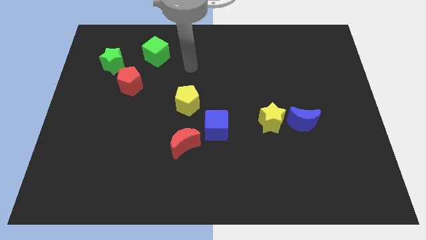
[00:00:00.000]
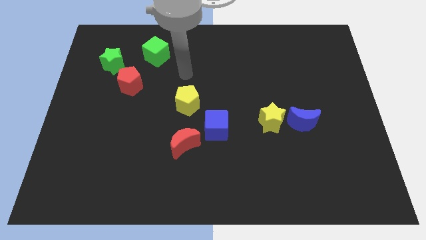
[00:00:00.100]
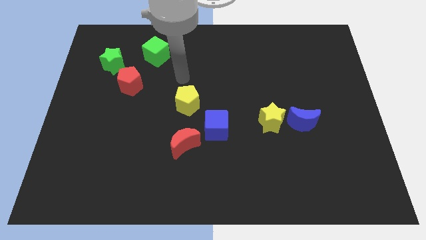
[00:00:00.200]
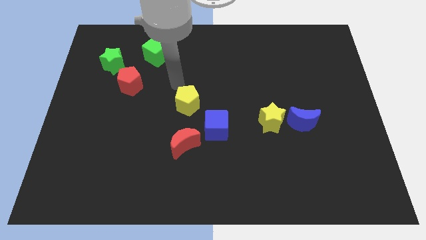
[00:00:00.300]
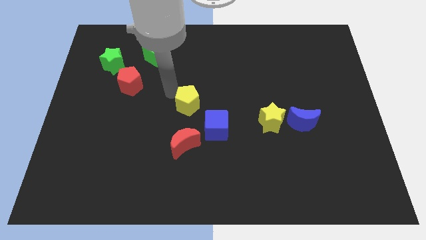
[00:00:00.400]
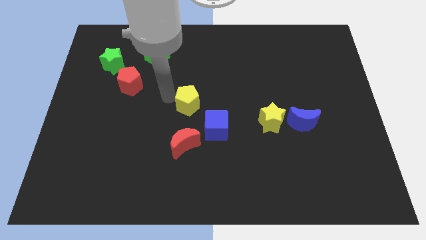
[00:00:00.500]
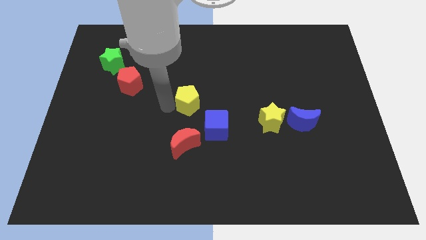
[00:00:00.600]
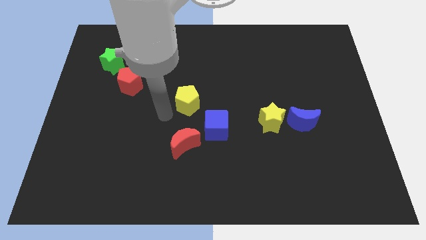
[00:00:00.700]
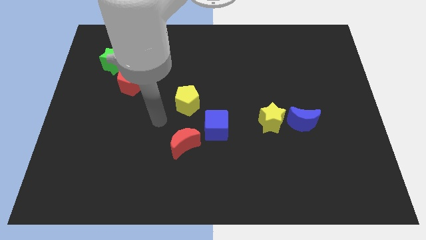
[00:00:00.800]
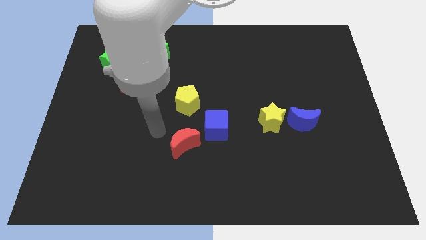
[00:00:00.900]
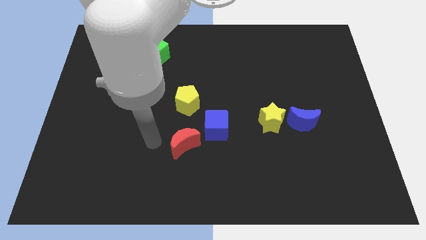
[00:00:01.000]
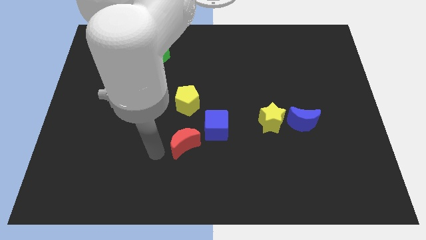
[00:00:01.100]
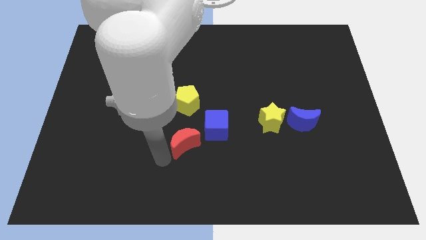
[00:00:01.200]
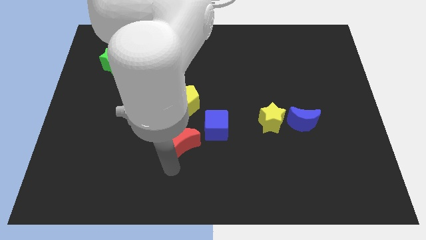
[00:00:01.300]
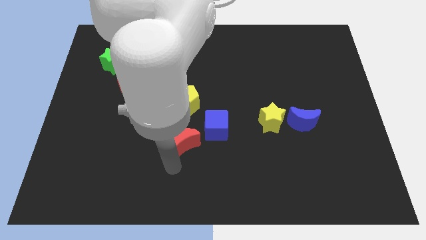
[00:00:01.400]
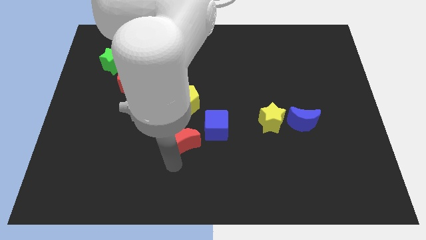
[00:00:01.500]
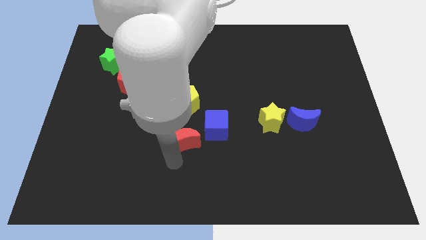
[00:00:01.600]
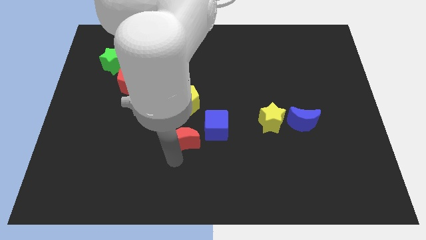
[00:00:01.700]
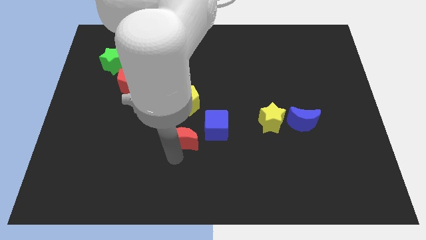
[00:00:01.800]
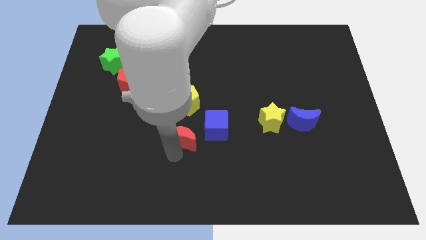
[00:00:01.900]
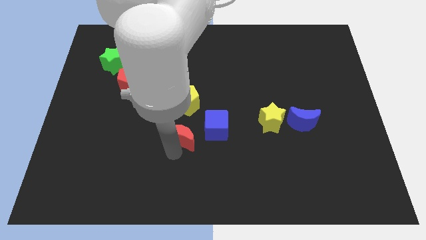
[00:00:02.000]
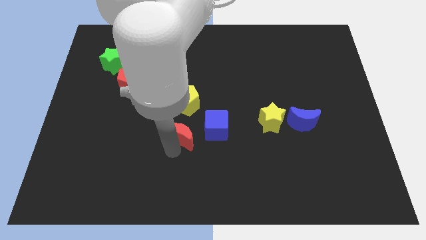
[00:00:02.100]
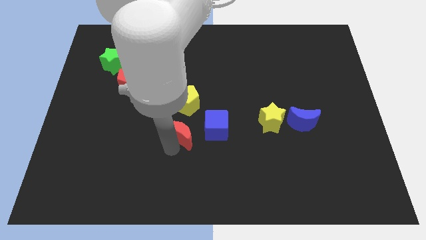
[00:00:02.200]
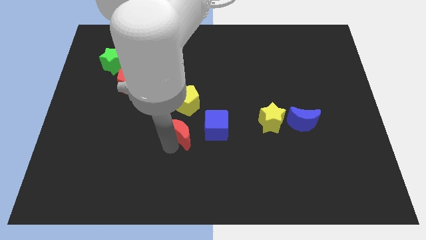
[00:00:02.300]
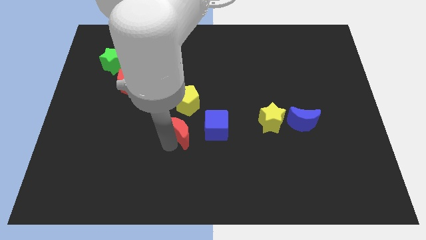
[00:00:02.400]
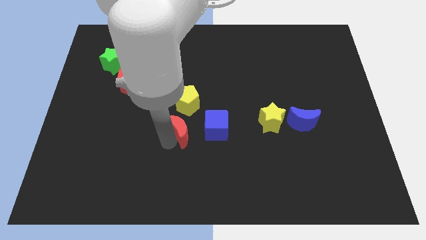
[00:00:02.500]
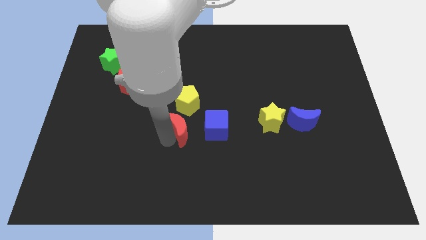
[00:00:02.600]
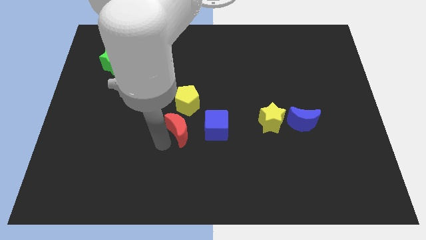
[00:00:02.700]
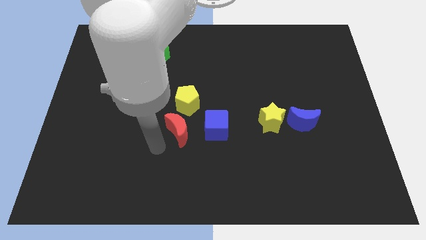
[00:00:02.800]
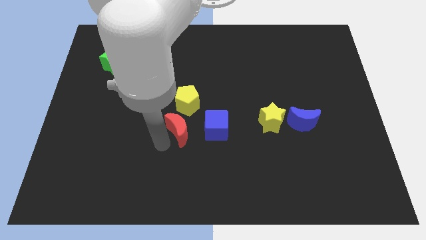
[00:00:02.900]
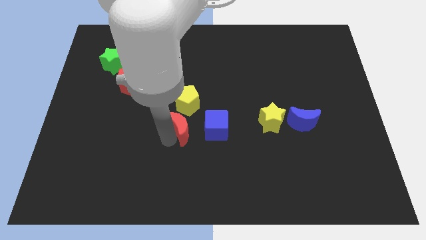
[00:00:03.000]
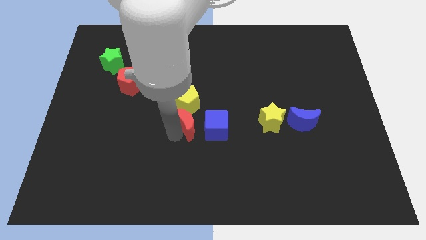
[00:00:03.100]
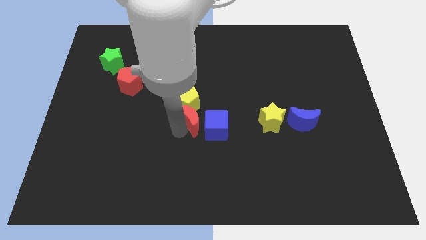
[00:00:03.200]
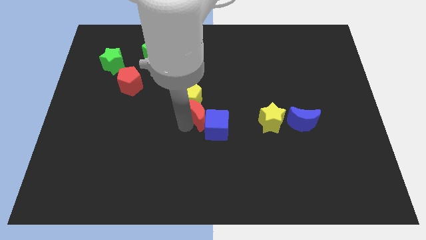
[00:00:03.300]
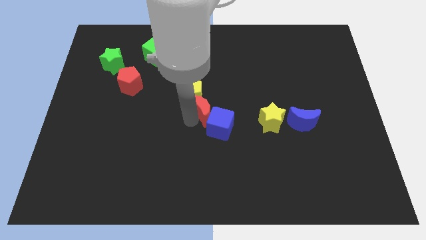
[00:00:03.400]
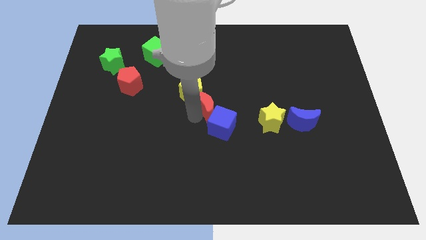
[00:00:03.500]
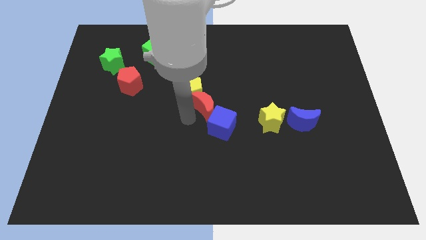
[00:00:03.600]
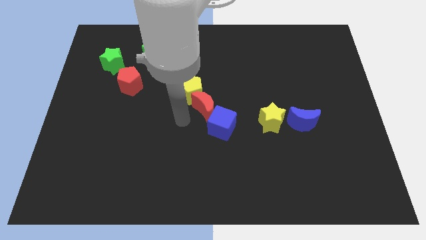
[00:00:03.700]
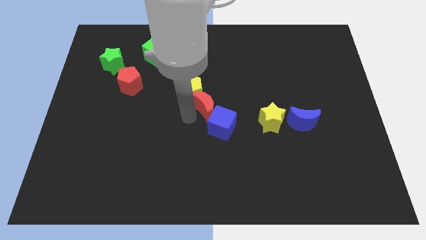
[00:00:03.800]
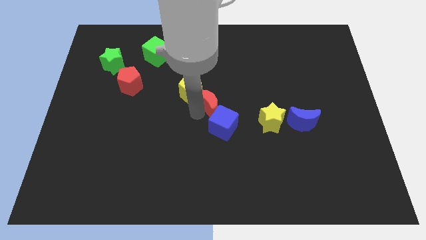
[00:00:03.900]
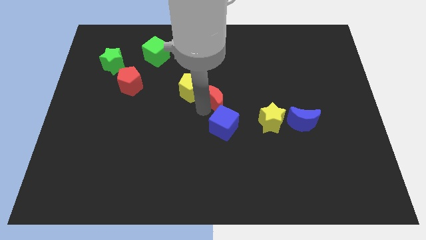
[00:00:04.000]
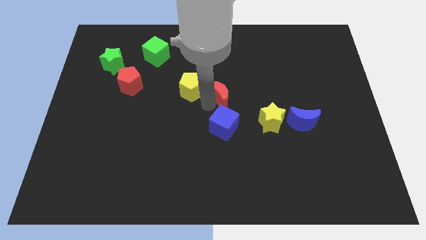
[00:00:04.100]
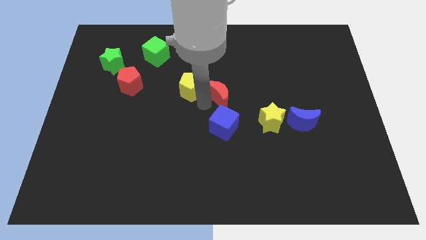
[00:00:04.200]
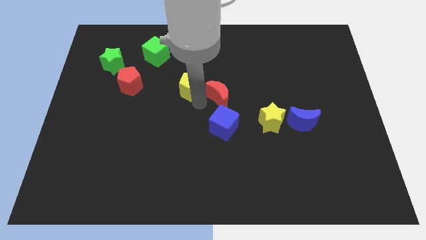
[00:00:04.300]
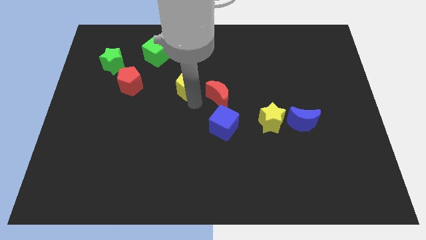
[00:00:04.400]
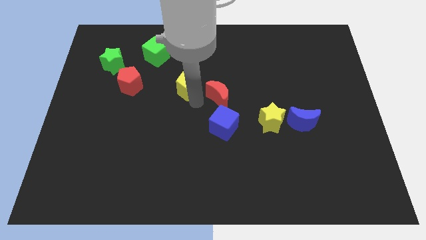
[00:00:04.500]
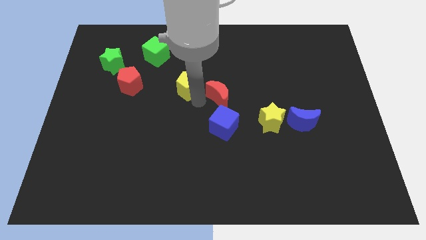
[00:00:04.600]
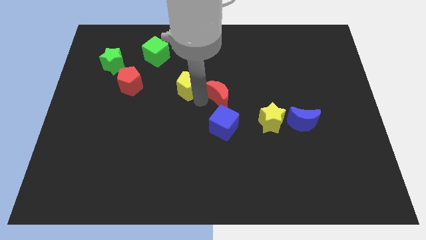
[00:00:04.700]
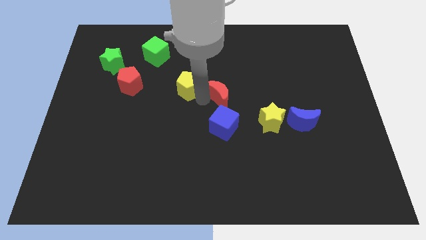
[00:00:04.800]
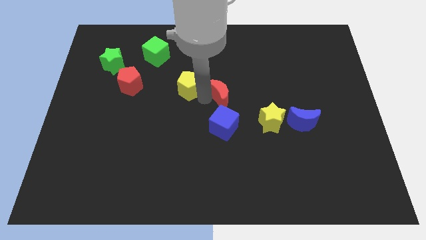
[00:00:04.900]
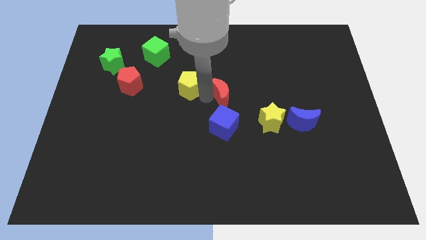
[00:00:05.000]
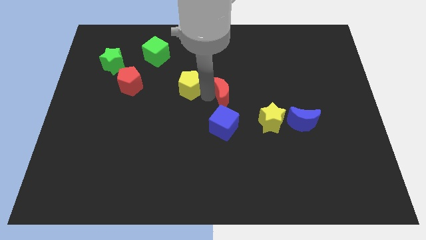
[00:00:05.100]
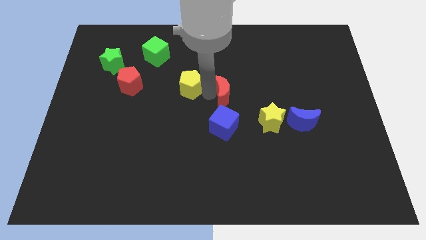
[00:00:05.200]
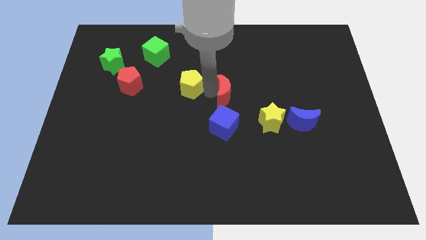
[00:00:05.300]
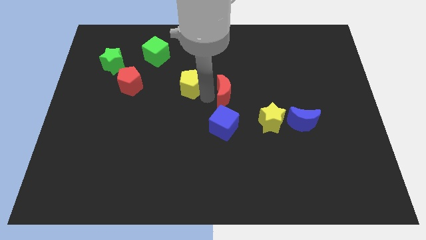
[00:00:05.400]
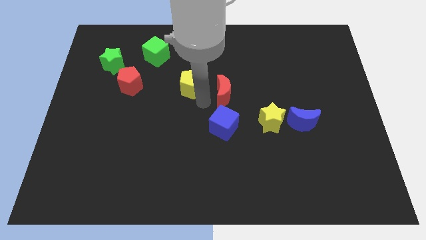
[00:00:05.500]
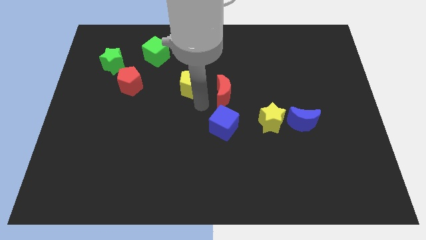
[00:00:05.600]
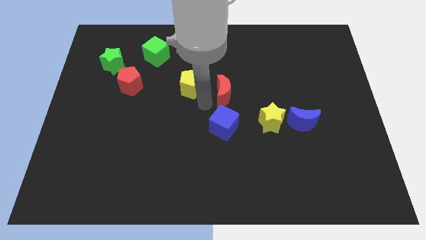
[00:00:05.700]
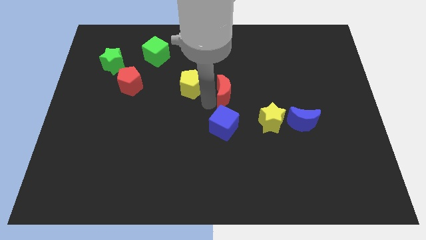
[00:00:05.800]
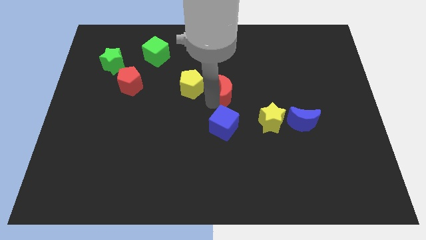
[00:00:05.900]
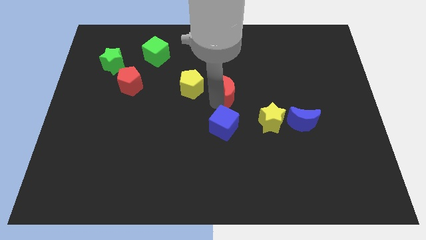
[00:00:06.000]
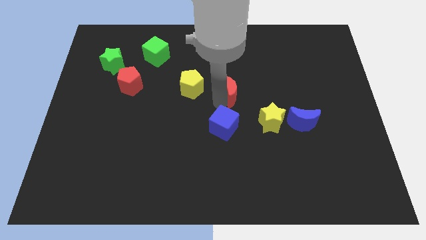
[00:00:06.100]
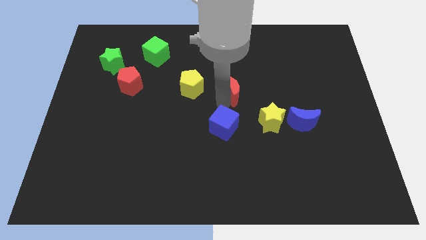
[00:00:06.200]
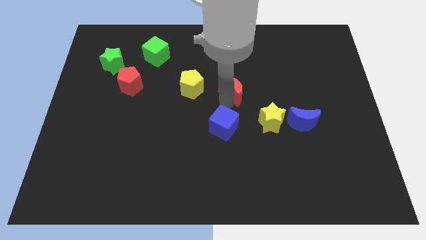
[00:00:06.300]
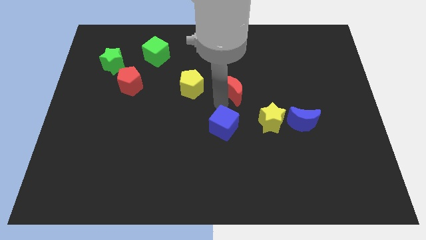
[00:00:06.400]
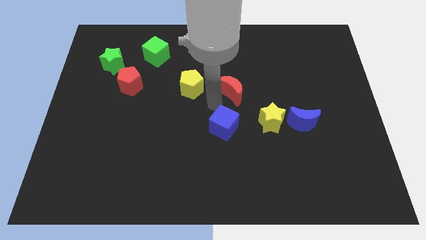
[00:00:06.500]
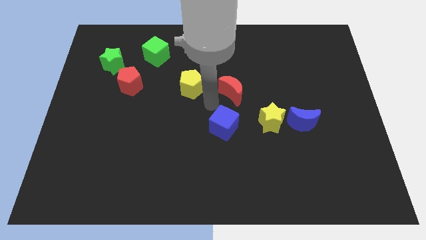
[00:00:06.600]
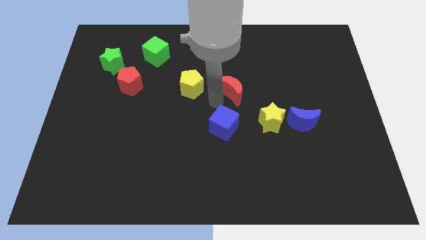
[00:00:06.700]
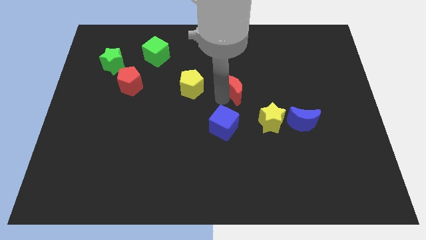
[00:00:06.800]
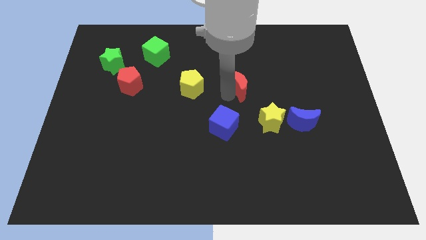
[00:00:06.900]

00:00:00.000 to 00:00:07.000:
push the red moon up and right diagonally

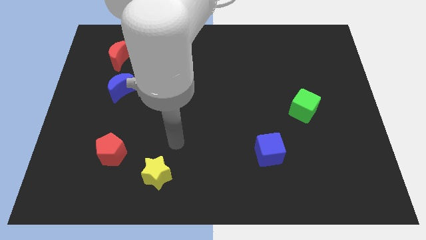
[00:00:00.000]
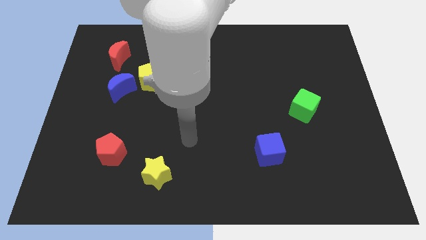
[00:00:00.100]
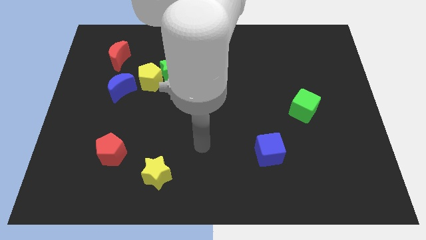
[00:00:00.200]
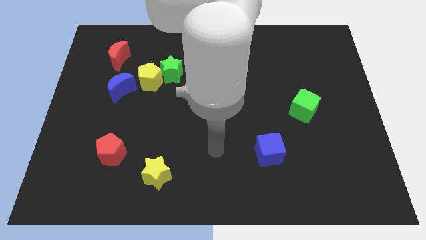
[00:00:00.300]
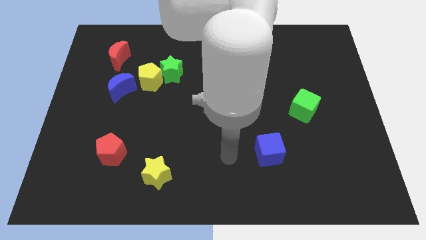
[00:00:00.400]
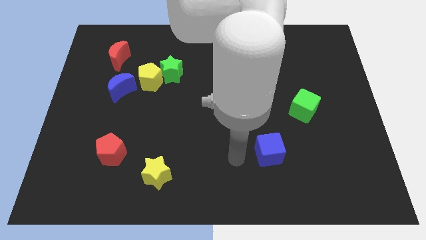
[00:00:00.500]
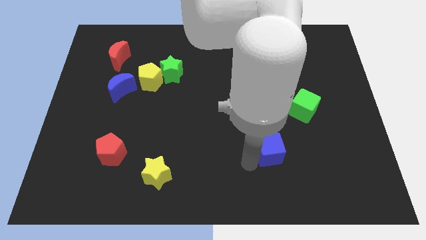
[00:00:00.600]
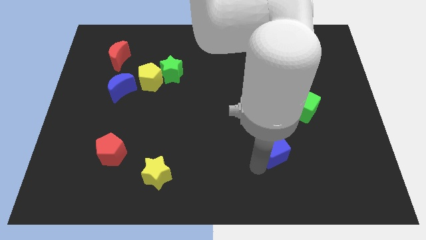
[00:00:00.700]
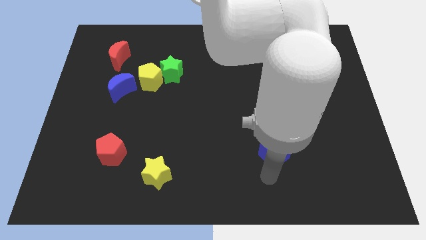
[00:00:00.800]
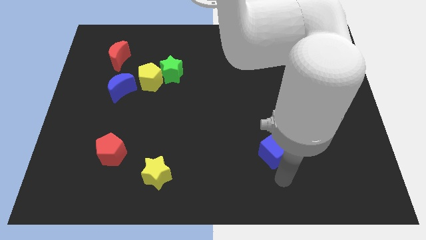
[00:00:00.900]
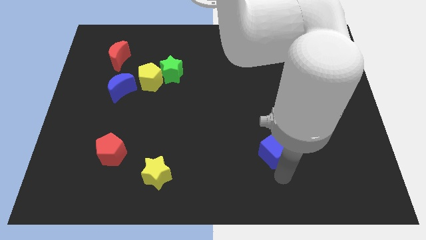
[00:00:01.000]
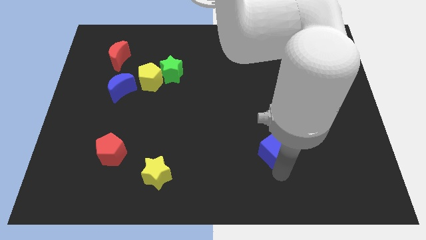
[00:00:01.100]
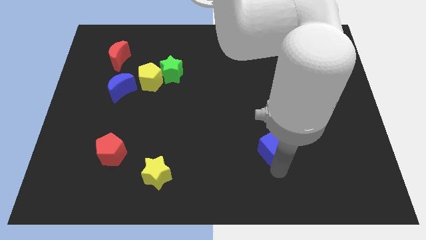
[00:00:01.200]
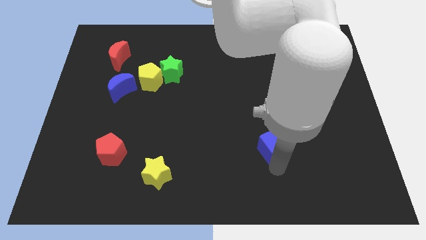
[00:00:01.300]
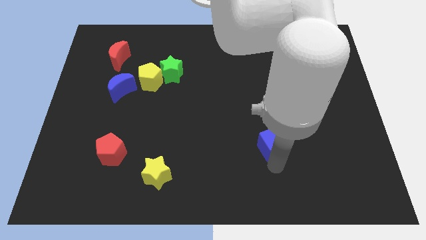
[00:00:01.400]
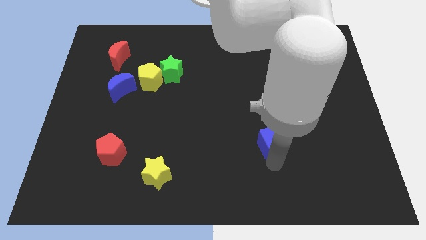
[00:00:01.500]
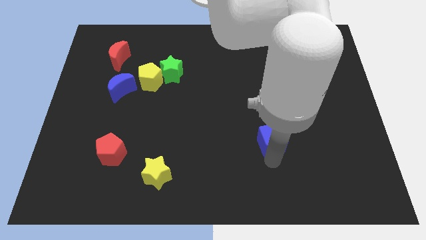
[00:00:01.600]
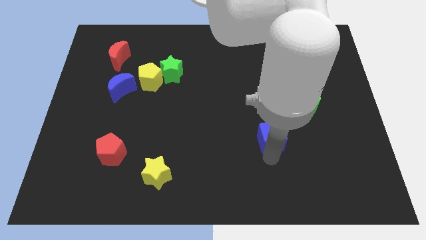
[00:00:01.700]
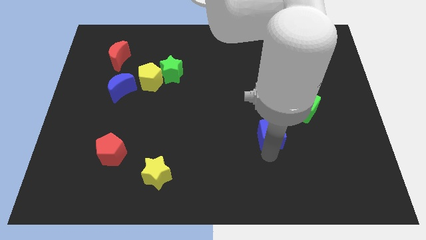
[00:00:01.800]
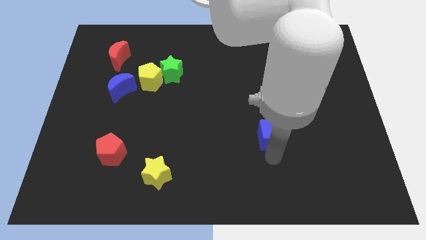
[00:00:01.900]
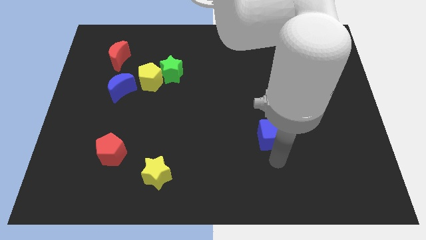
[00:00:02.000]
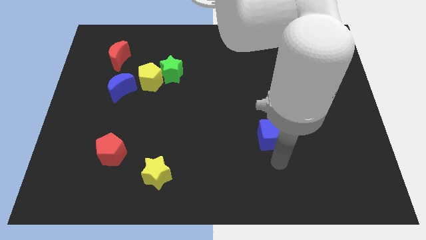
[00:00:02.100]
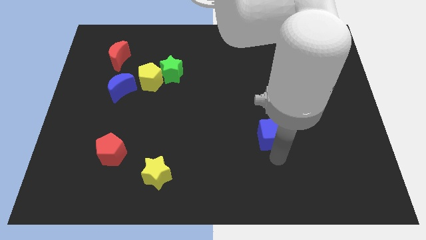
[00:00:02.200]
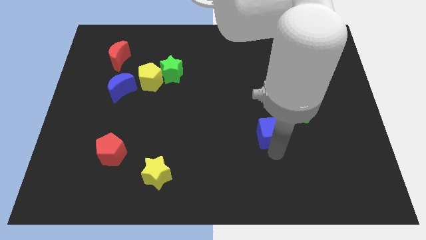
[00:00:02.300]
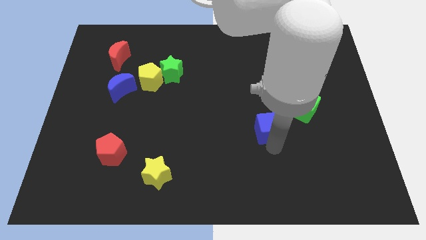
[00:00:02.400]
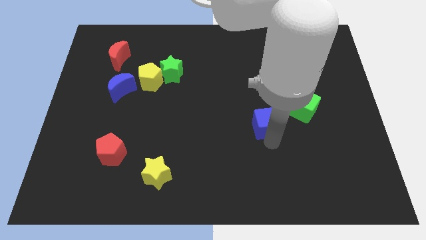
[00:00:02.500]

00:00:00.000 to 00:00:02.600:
slide the blue cube upwards a bit
